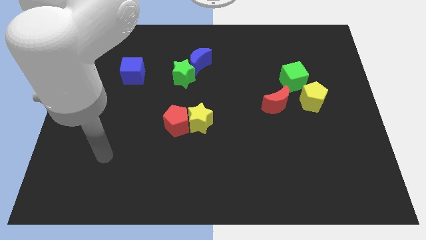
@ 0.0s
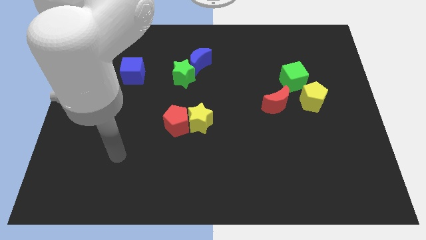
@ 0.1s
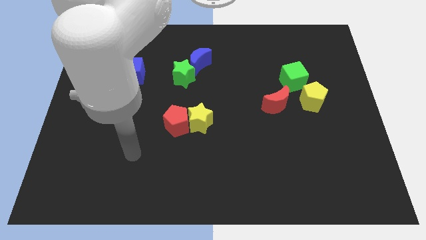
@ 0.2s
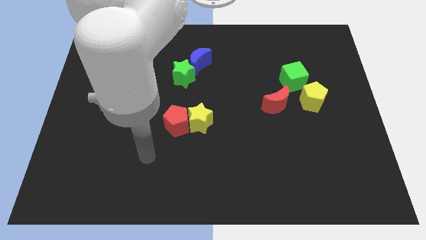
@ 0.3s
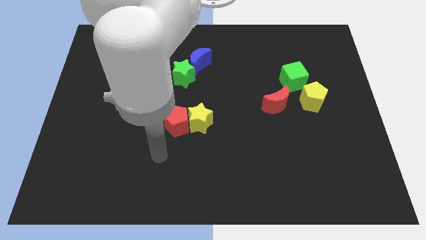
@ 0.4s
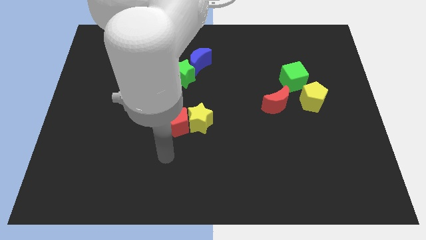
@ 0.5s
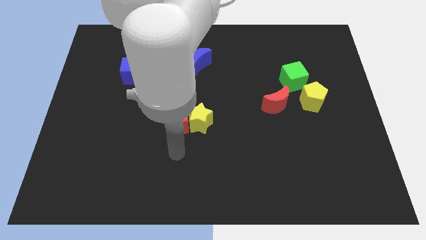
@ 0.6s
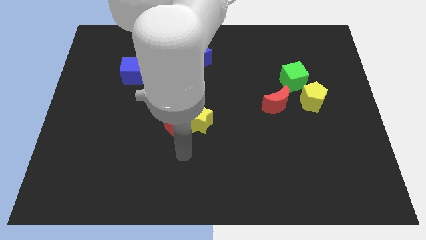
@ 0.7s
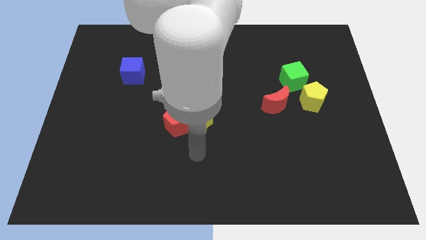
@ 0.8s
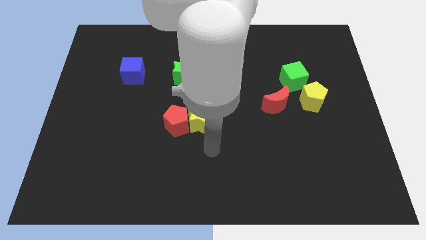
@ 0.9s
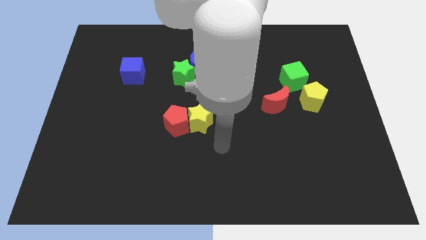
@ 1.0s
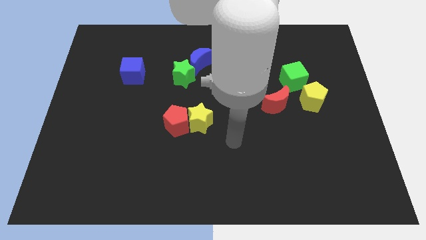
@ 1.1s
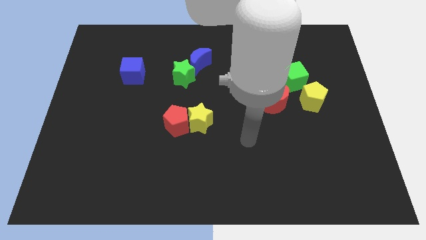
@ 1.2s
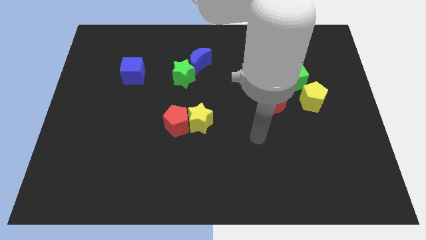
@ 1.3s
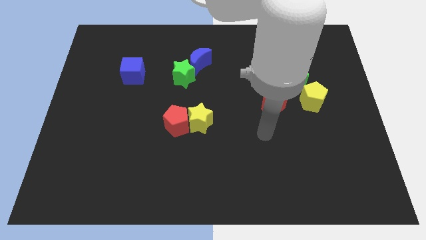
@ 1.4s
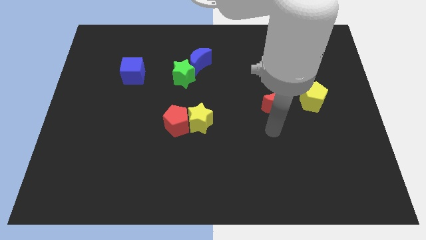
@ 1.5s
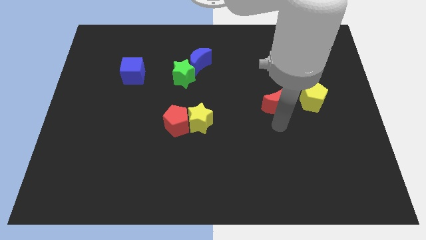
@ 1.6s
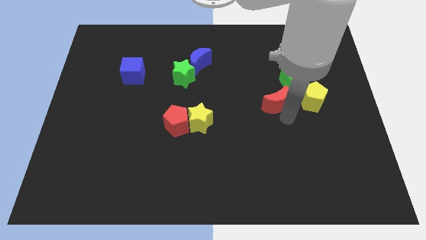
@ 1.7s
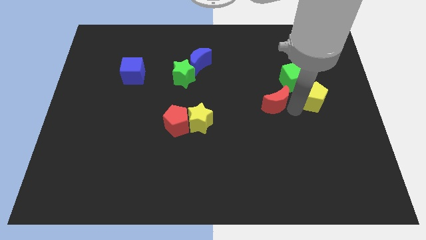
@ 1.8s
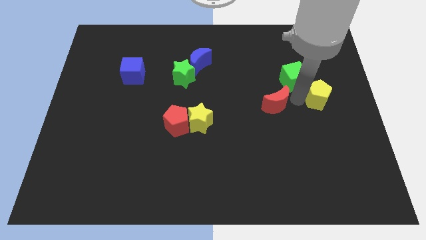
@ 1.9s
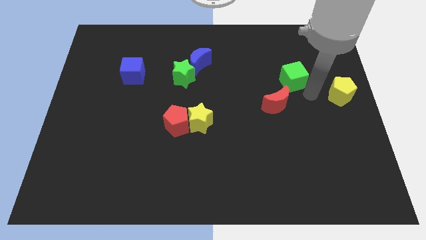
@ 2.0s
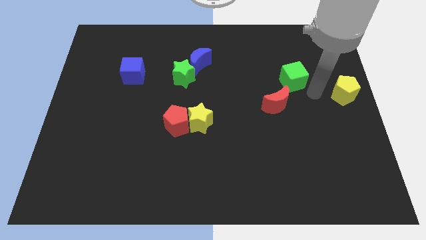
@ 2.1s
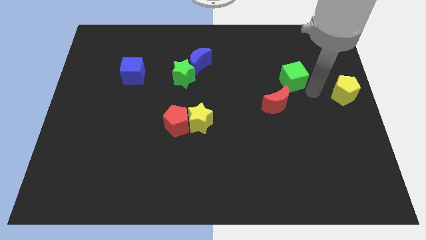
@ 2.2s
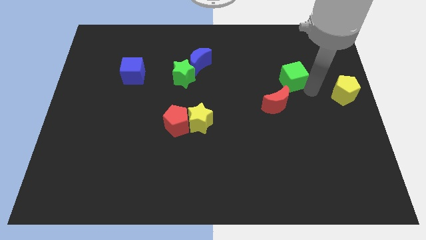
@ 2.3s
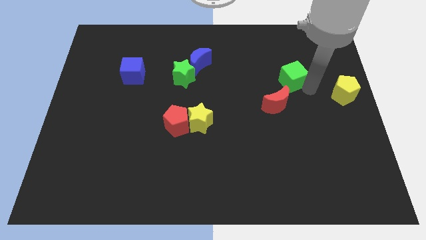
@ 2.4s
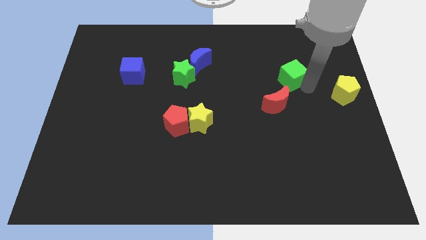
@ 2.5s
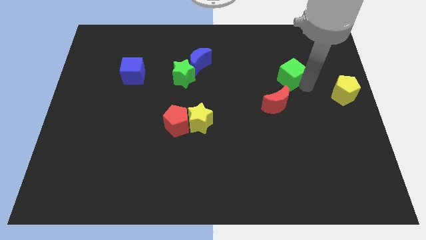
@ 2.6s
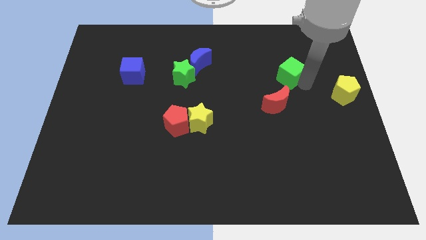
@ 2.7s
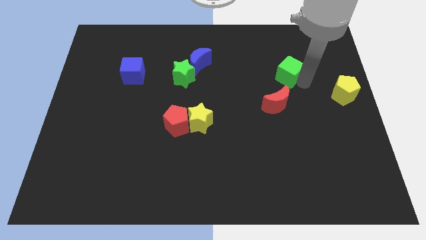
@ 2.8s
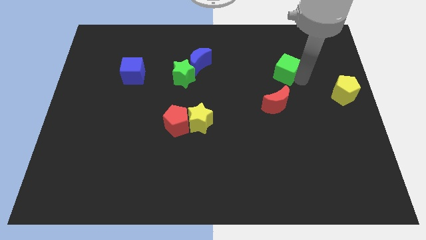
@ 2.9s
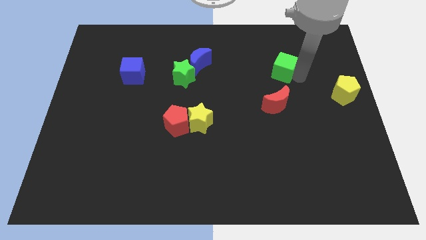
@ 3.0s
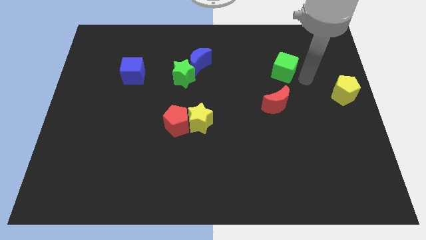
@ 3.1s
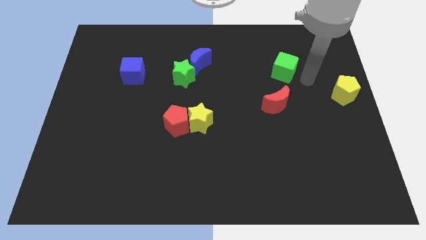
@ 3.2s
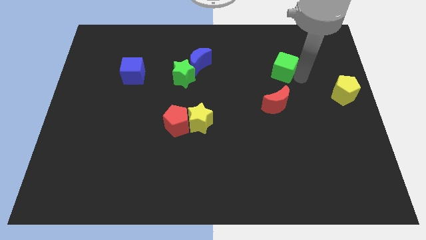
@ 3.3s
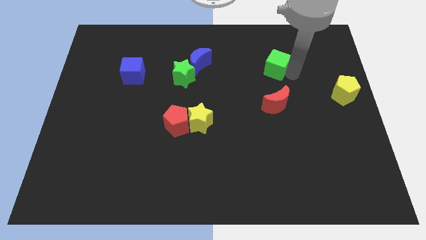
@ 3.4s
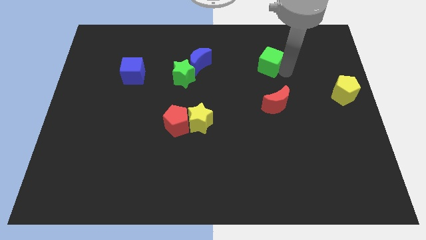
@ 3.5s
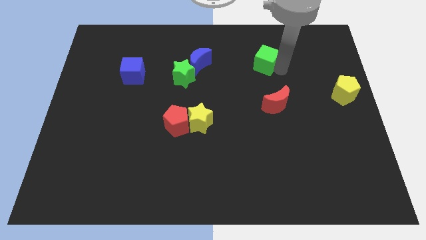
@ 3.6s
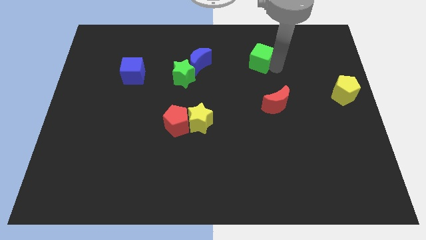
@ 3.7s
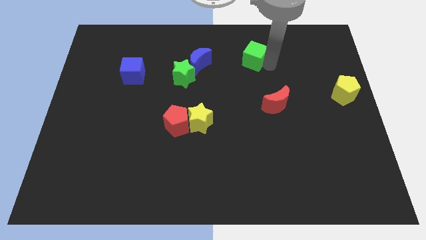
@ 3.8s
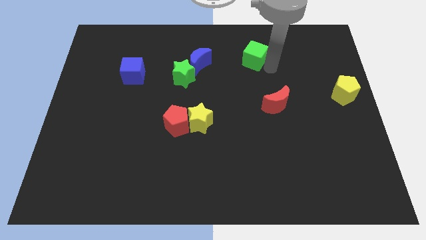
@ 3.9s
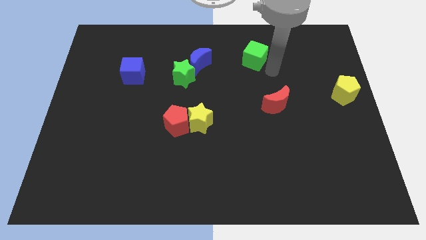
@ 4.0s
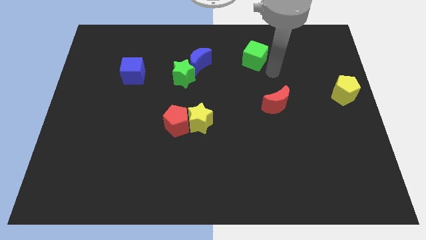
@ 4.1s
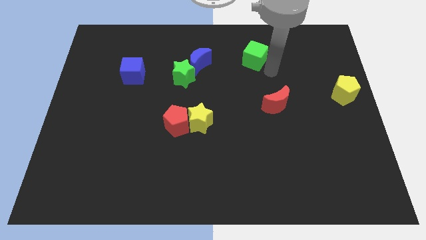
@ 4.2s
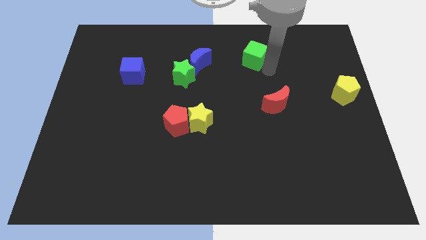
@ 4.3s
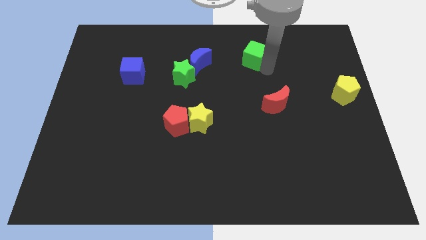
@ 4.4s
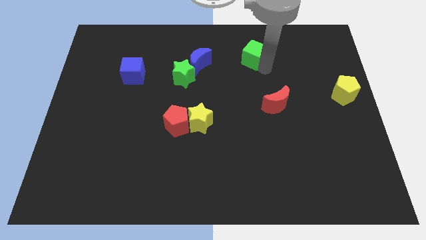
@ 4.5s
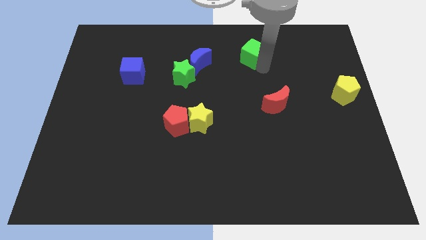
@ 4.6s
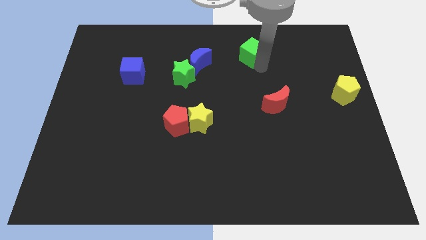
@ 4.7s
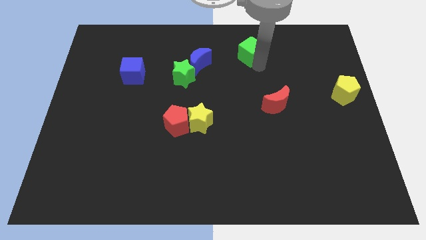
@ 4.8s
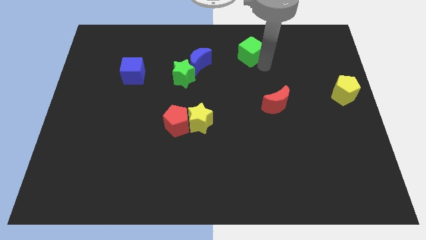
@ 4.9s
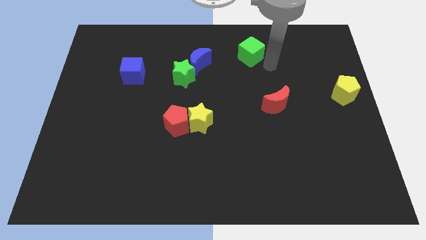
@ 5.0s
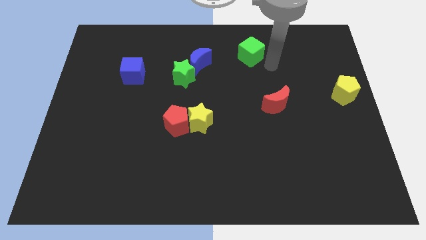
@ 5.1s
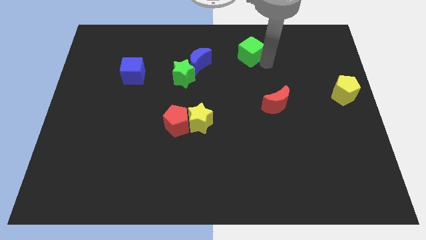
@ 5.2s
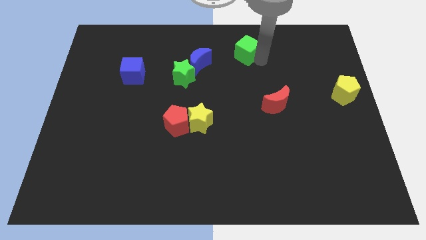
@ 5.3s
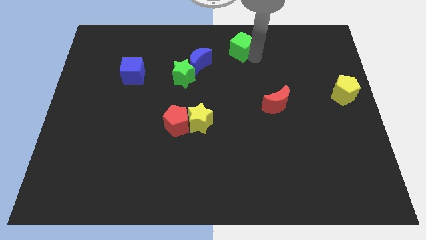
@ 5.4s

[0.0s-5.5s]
put the green cube to the top side
